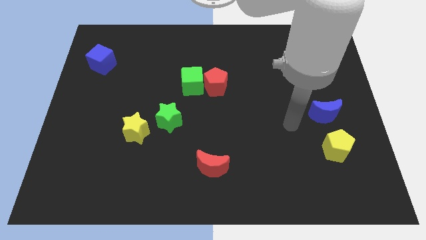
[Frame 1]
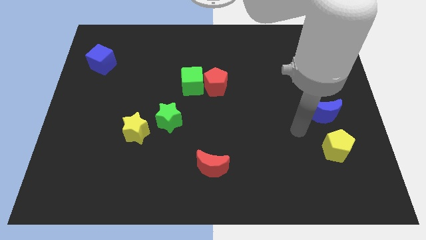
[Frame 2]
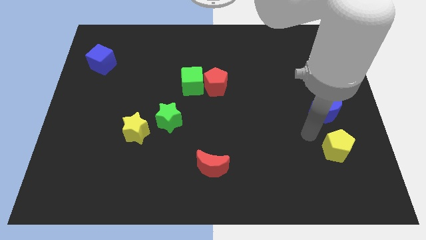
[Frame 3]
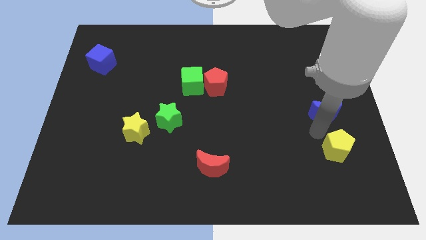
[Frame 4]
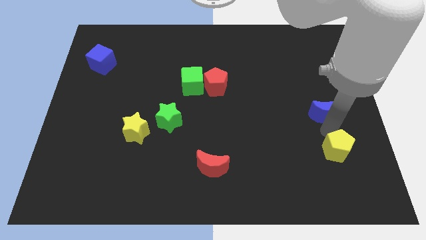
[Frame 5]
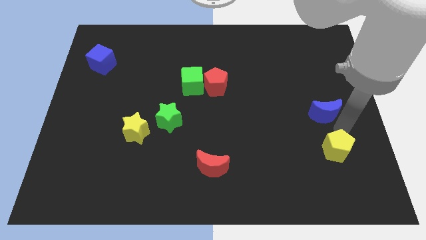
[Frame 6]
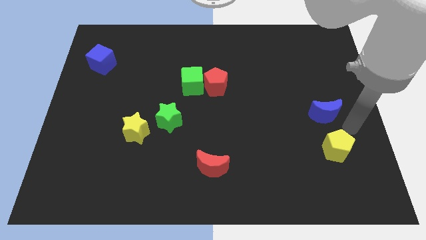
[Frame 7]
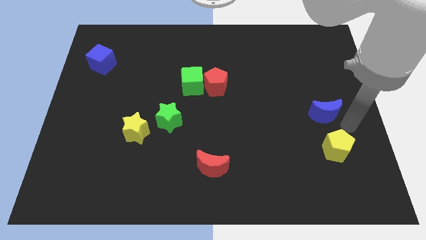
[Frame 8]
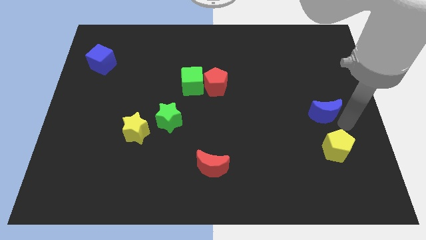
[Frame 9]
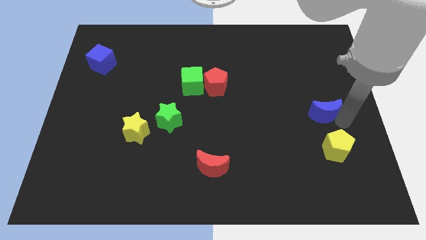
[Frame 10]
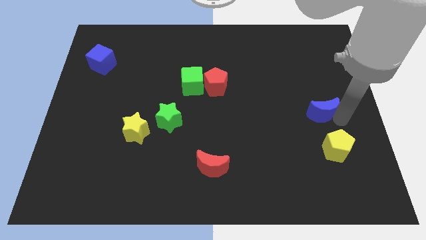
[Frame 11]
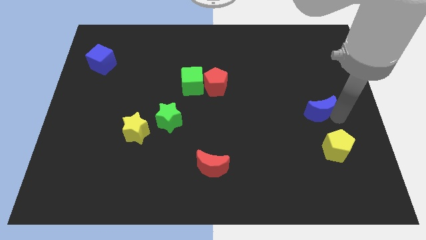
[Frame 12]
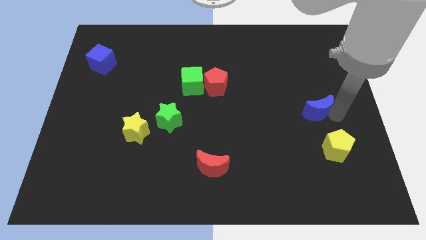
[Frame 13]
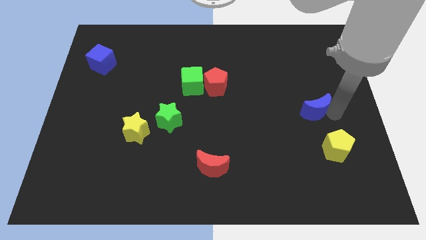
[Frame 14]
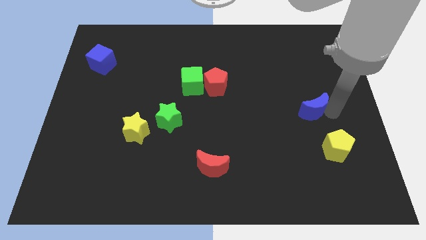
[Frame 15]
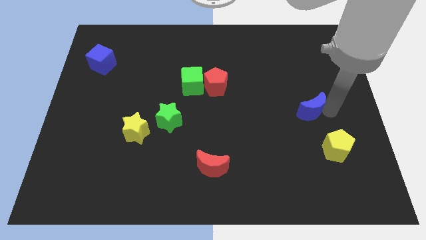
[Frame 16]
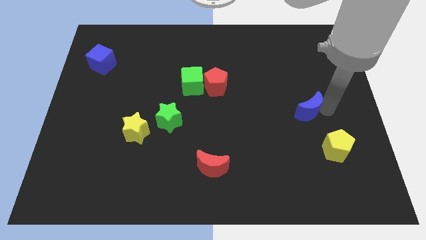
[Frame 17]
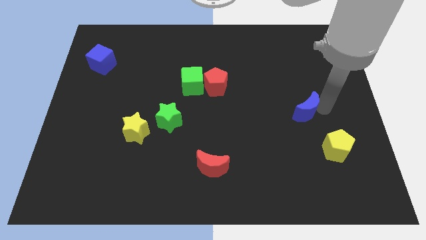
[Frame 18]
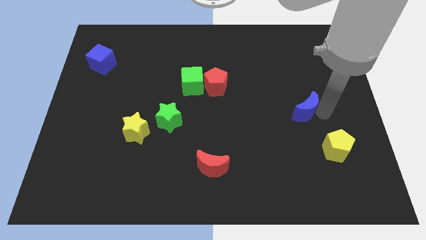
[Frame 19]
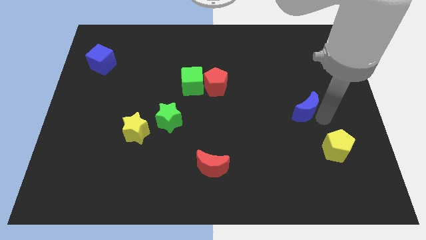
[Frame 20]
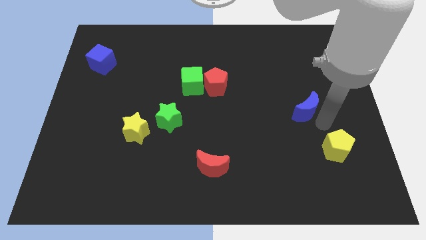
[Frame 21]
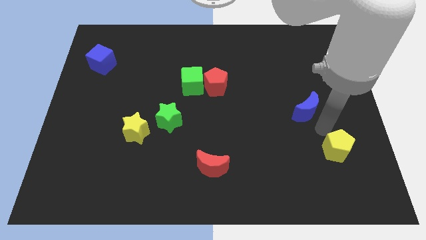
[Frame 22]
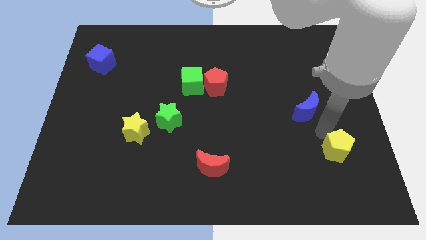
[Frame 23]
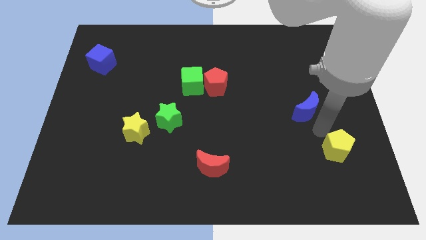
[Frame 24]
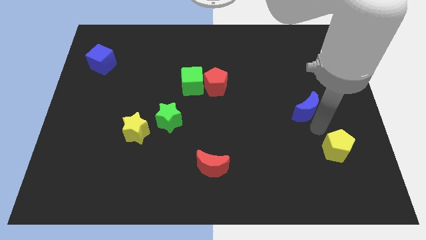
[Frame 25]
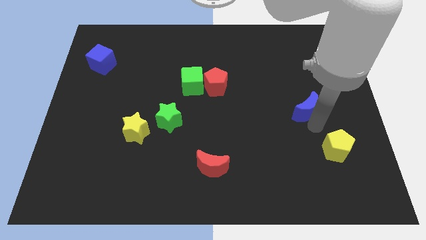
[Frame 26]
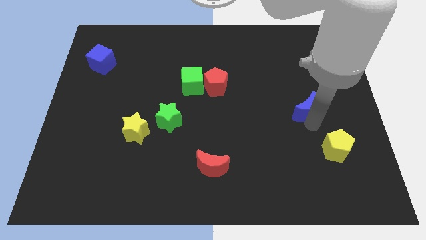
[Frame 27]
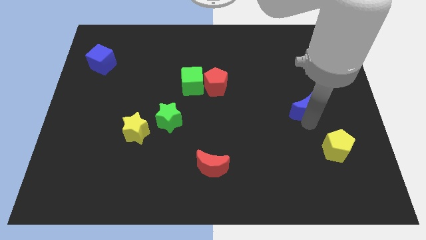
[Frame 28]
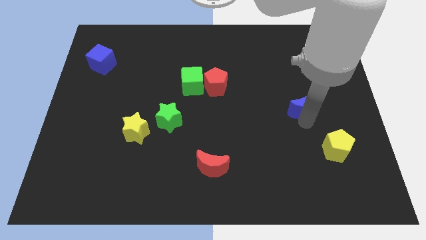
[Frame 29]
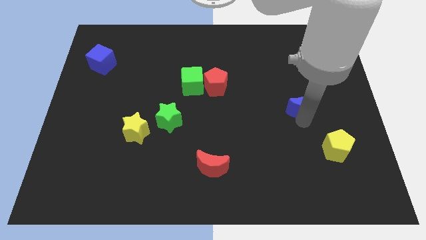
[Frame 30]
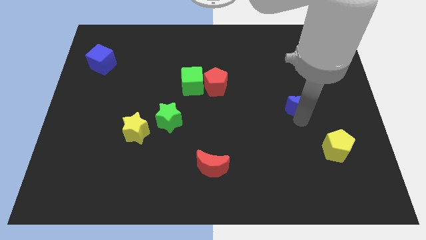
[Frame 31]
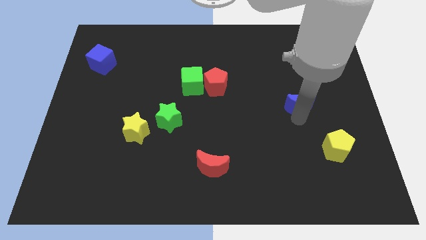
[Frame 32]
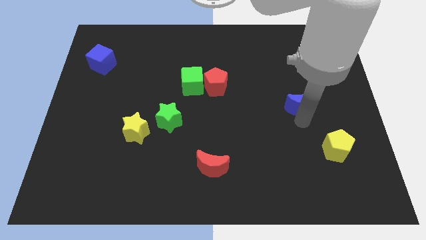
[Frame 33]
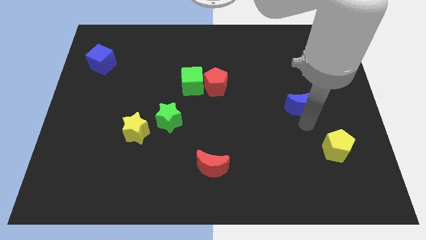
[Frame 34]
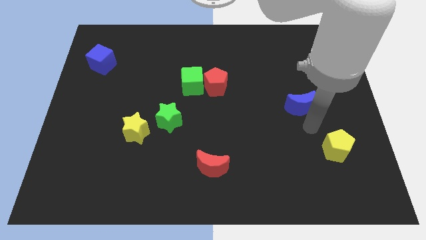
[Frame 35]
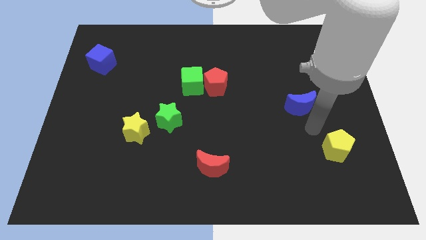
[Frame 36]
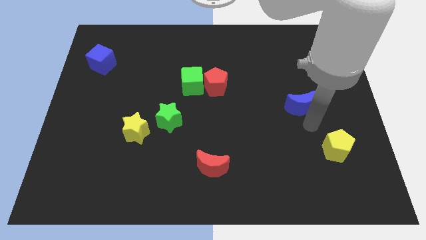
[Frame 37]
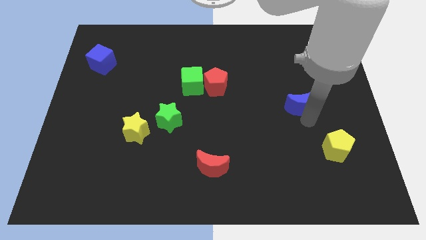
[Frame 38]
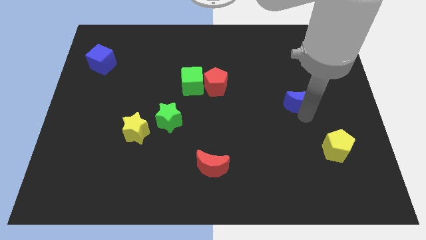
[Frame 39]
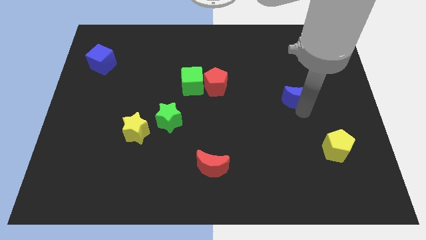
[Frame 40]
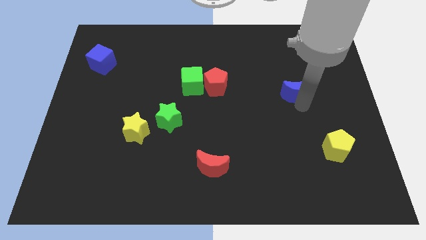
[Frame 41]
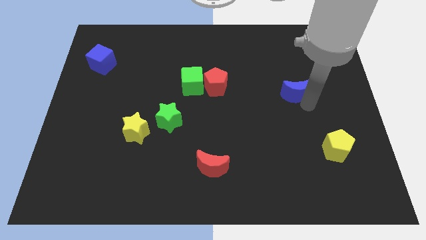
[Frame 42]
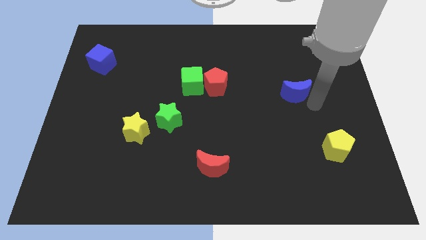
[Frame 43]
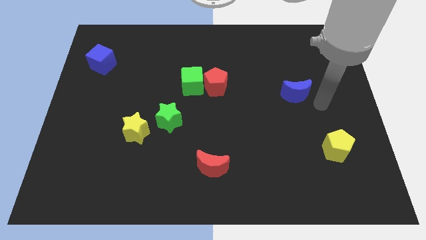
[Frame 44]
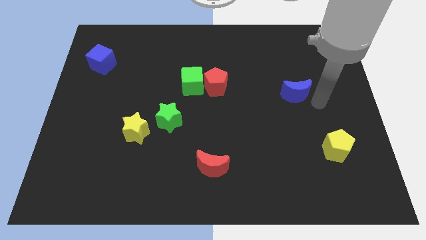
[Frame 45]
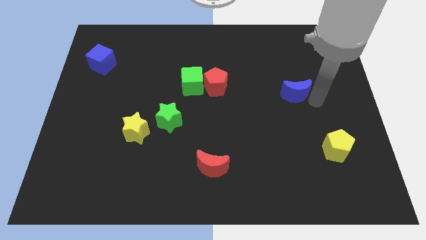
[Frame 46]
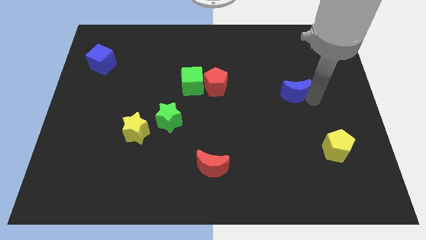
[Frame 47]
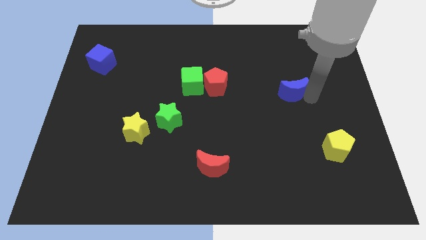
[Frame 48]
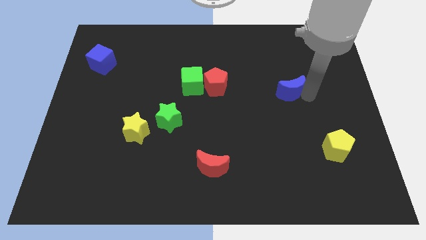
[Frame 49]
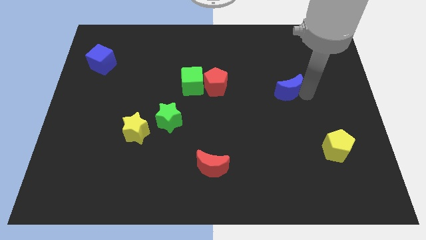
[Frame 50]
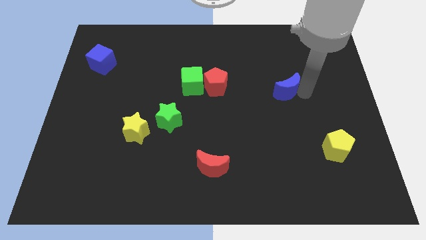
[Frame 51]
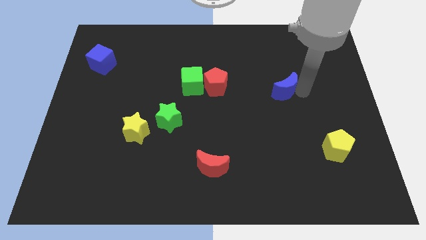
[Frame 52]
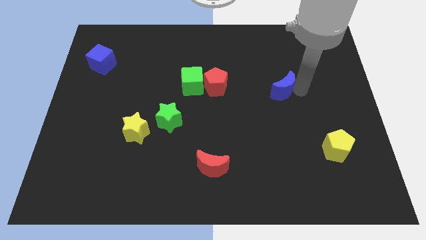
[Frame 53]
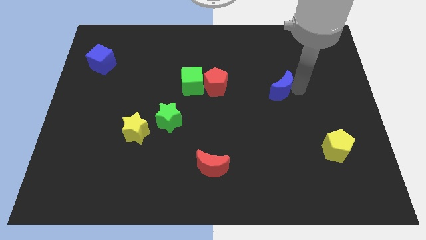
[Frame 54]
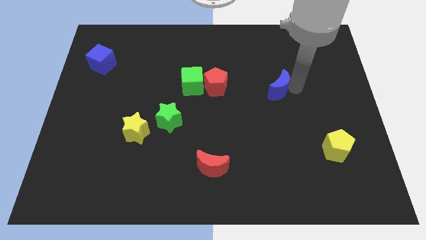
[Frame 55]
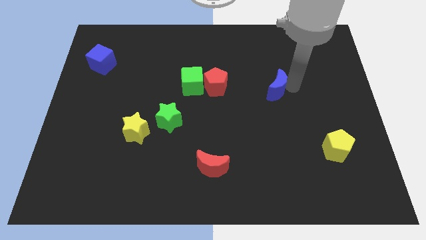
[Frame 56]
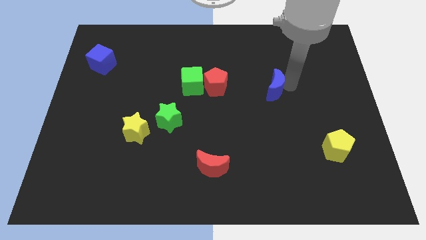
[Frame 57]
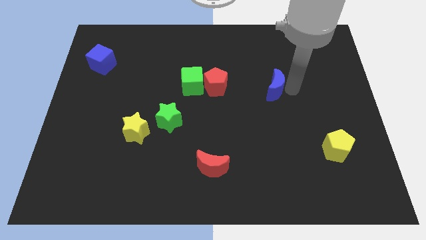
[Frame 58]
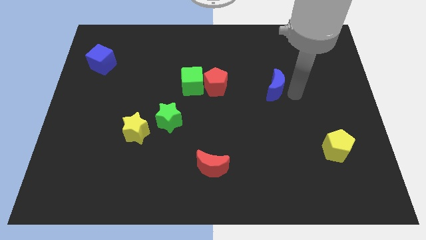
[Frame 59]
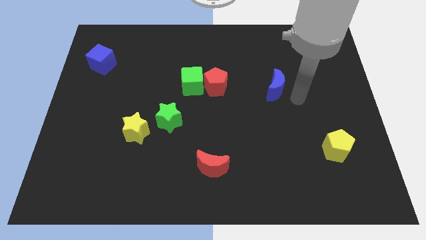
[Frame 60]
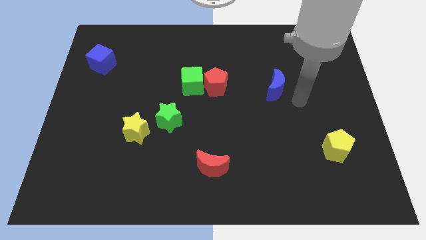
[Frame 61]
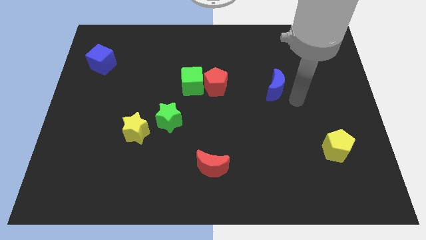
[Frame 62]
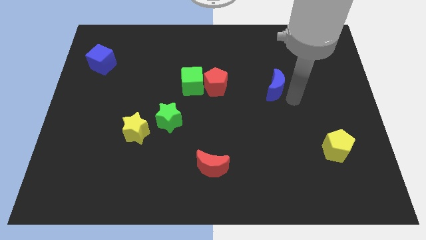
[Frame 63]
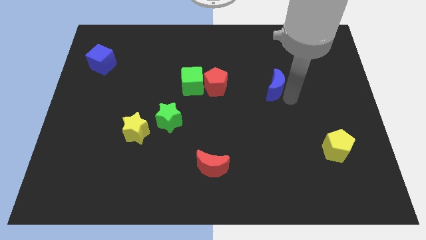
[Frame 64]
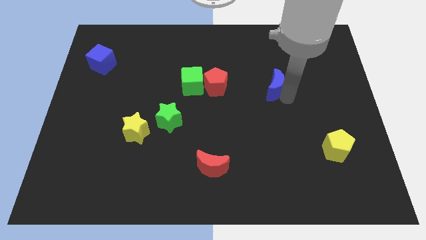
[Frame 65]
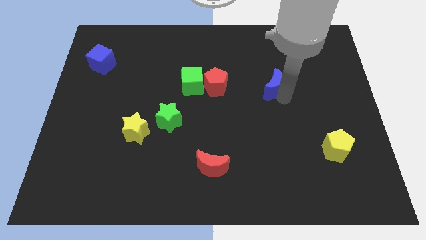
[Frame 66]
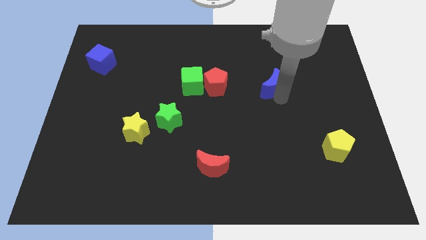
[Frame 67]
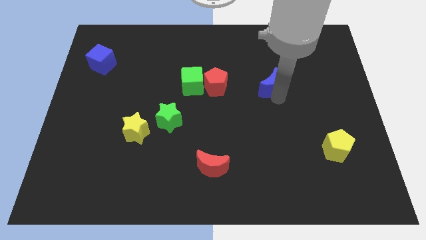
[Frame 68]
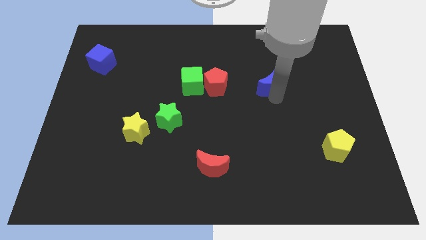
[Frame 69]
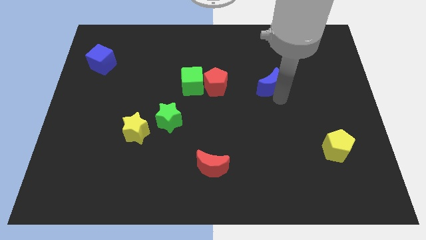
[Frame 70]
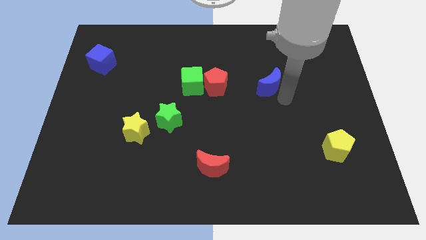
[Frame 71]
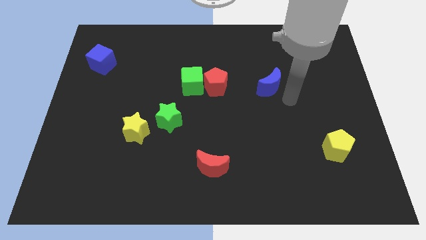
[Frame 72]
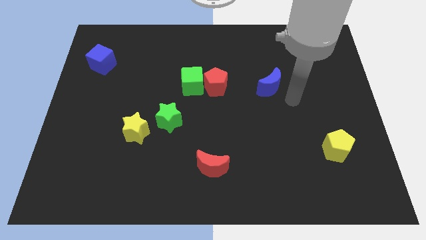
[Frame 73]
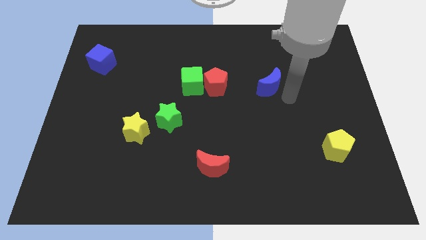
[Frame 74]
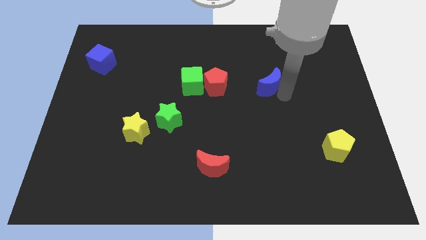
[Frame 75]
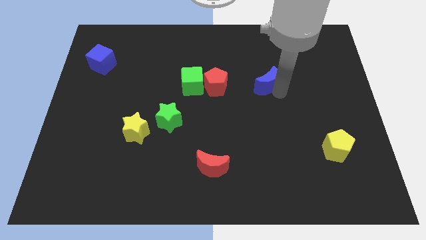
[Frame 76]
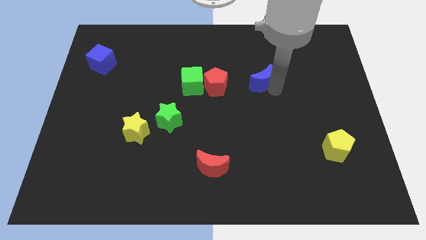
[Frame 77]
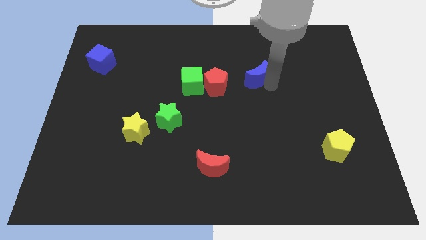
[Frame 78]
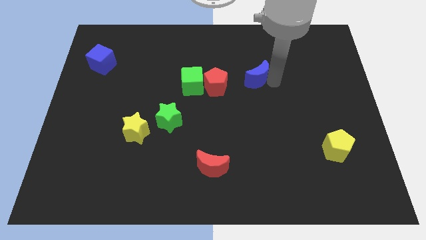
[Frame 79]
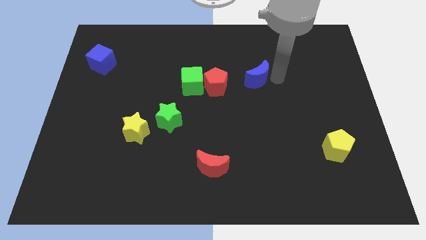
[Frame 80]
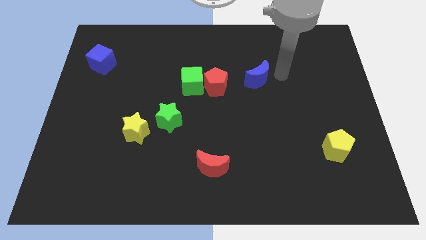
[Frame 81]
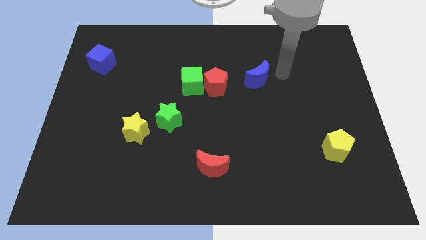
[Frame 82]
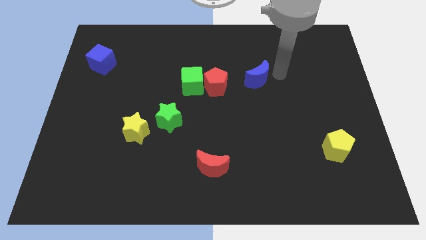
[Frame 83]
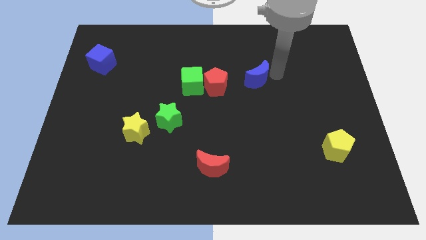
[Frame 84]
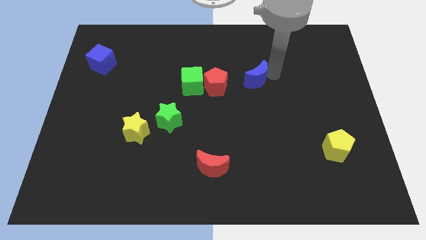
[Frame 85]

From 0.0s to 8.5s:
slide the blue moon to the right of the green cube
